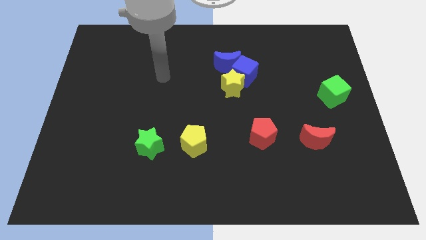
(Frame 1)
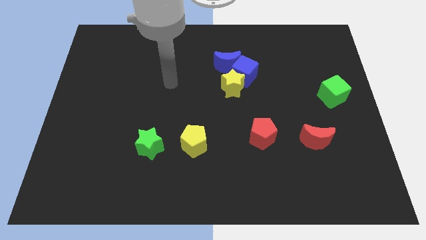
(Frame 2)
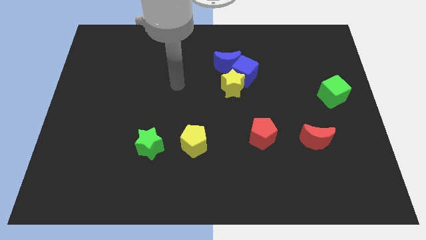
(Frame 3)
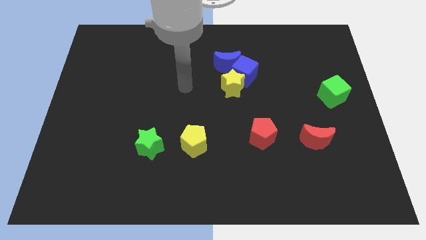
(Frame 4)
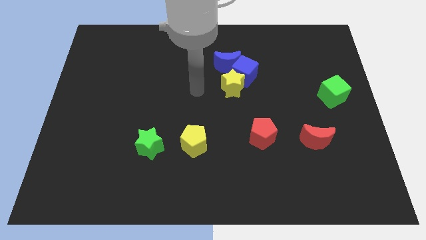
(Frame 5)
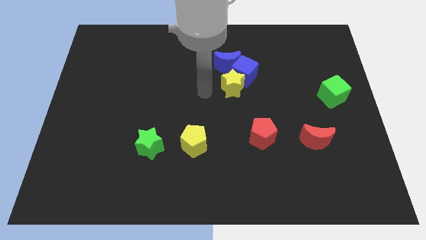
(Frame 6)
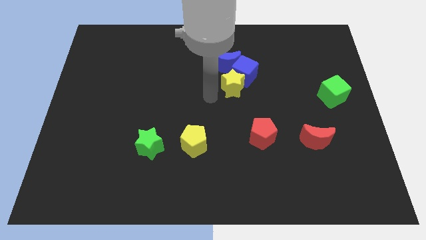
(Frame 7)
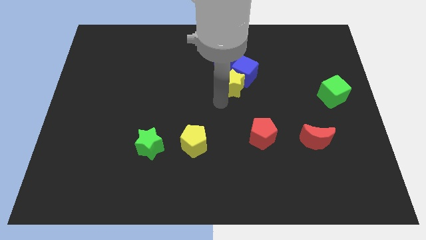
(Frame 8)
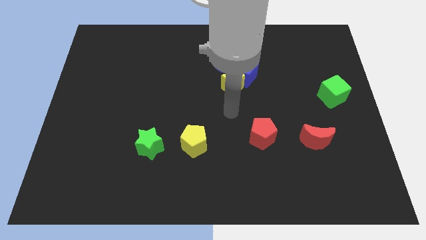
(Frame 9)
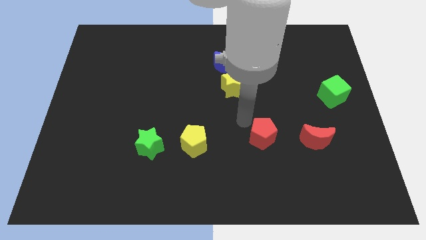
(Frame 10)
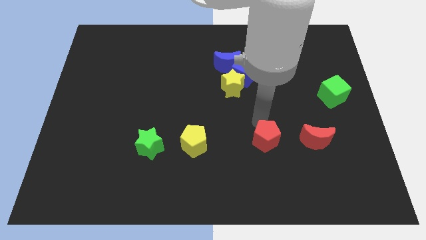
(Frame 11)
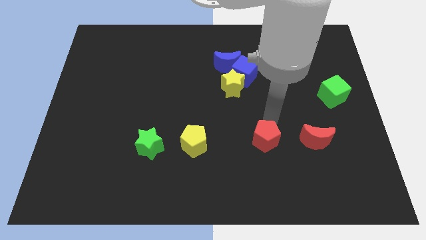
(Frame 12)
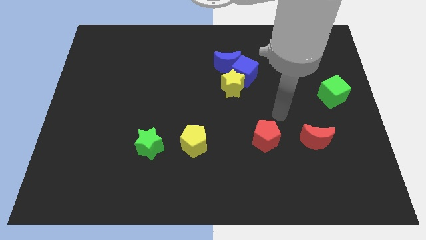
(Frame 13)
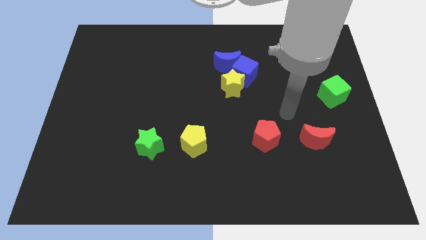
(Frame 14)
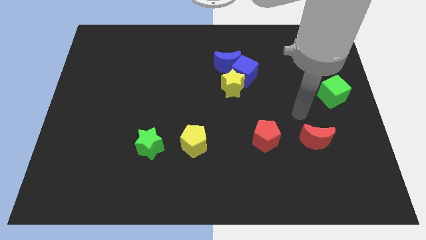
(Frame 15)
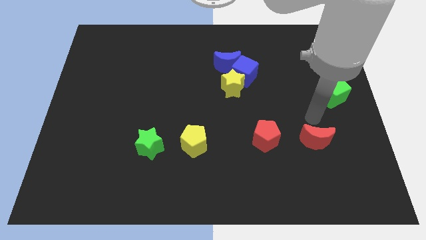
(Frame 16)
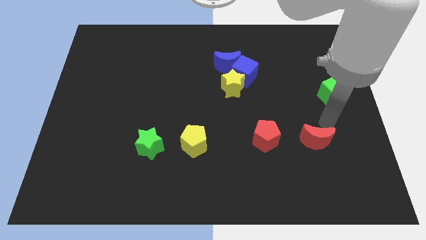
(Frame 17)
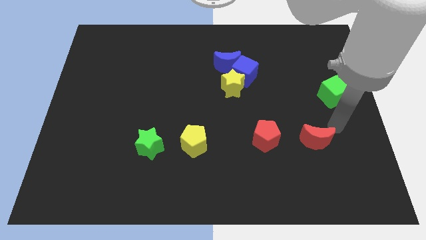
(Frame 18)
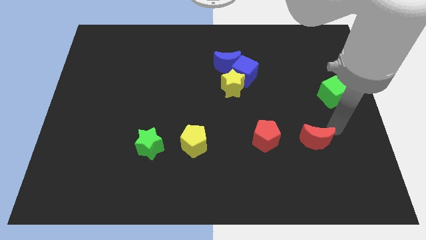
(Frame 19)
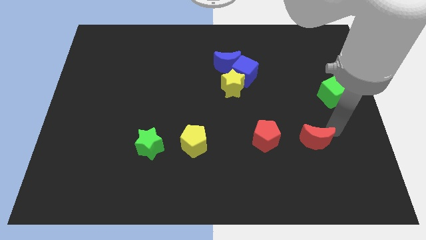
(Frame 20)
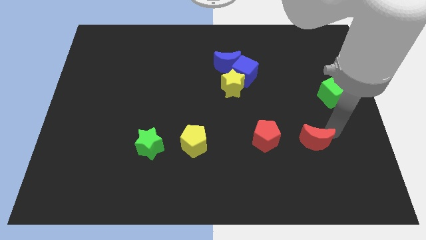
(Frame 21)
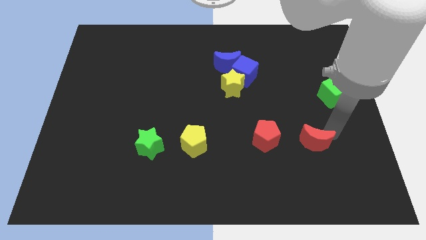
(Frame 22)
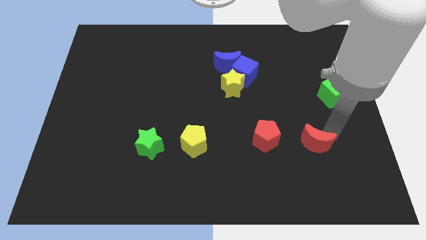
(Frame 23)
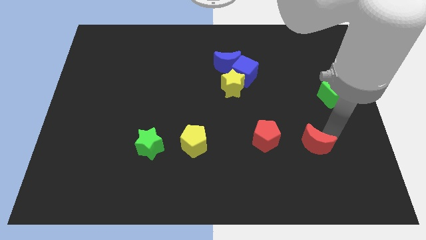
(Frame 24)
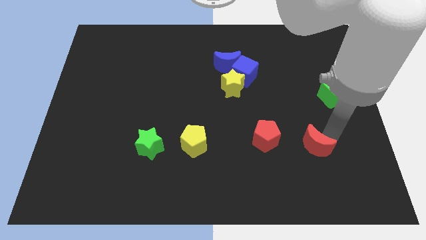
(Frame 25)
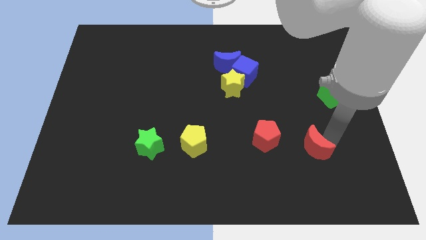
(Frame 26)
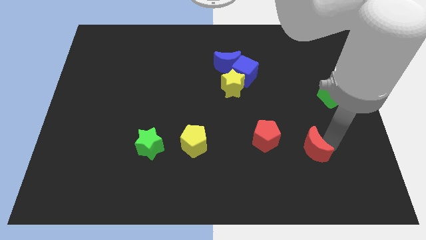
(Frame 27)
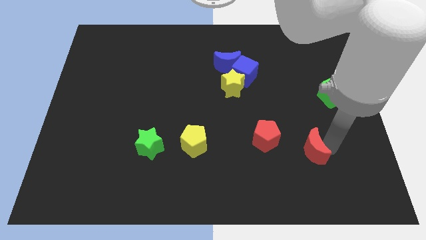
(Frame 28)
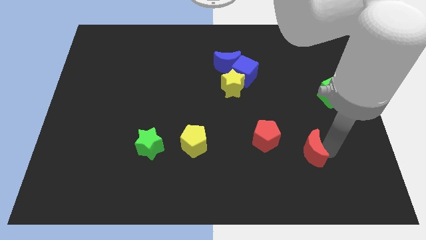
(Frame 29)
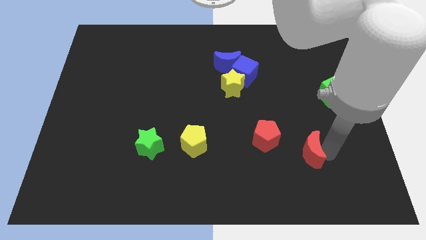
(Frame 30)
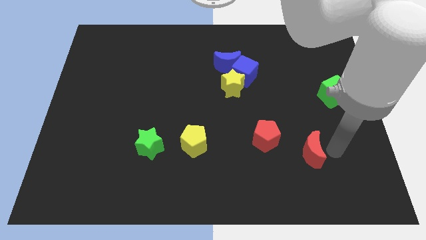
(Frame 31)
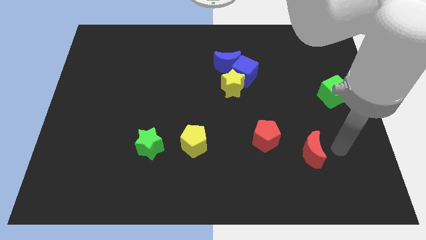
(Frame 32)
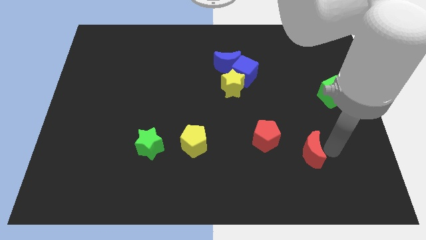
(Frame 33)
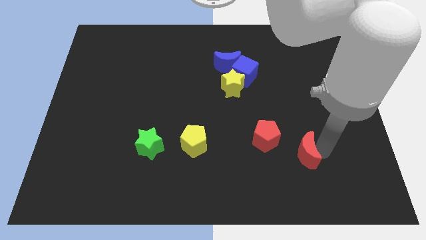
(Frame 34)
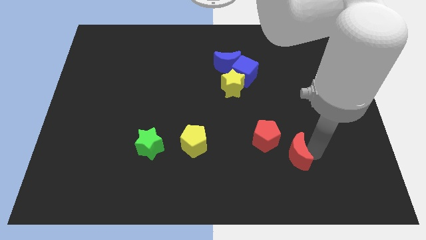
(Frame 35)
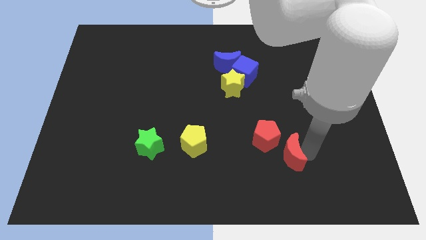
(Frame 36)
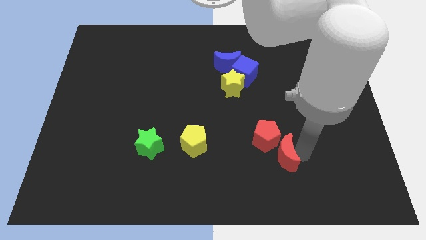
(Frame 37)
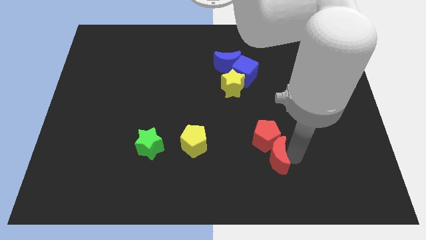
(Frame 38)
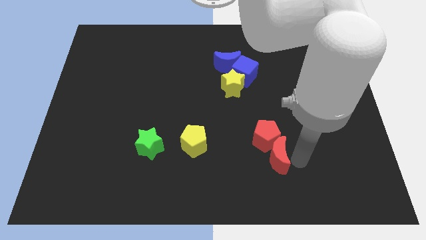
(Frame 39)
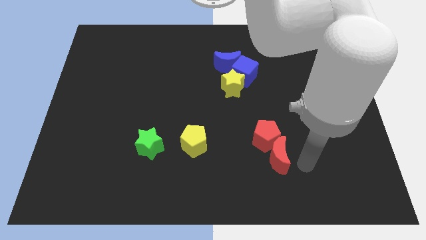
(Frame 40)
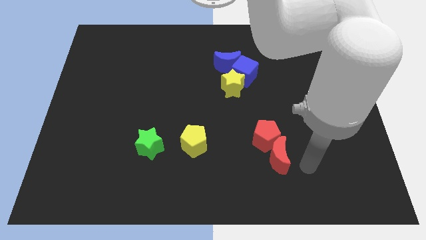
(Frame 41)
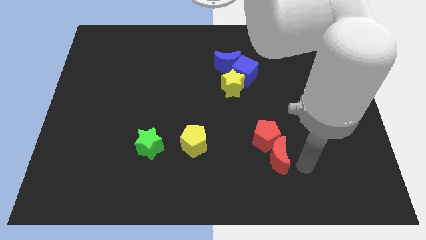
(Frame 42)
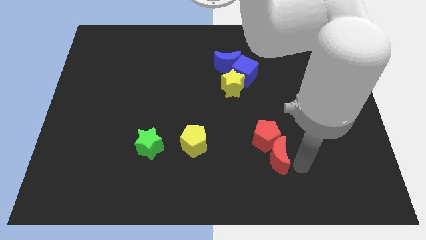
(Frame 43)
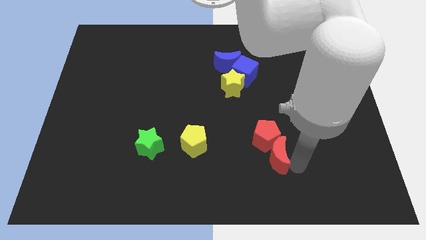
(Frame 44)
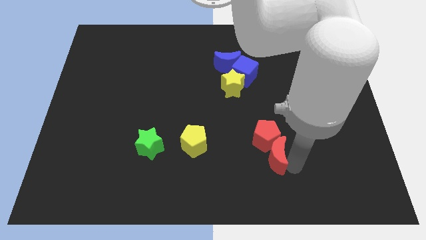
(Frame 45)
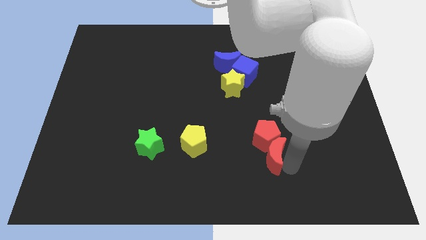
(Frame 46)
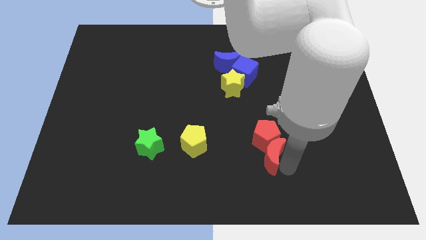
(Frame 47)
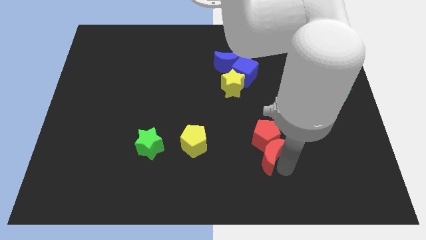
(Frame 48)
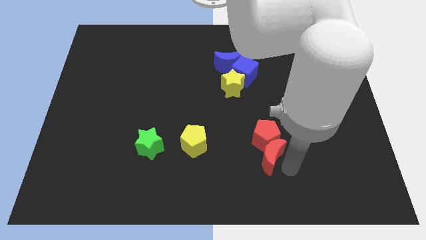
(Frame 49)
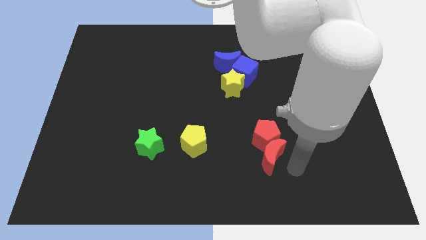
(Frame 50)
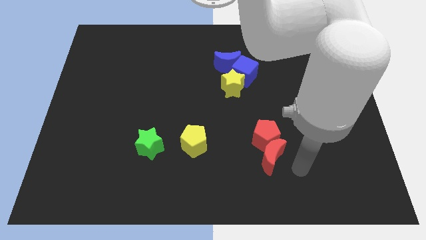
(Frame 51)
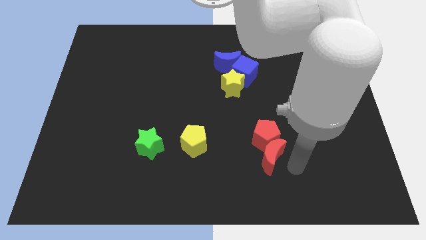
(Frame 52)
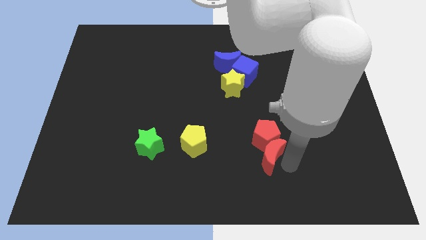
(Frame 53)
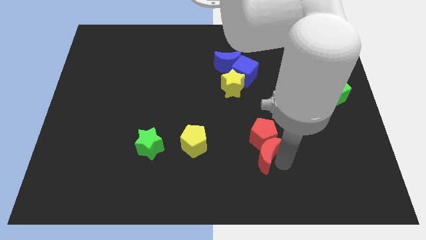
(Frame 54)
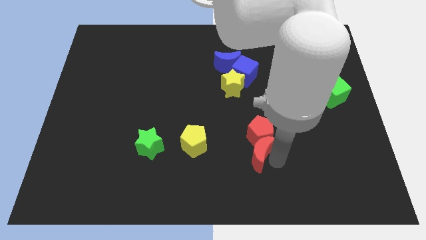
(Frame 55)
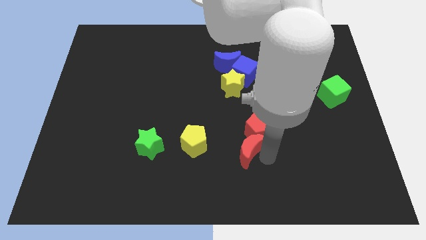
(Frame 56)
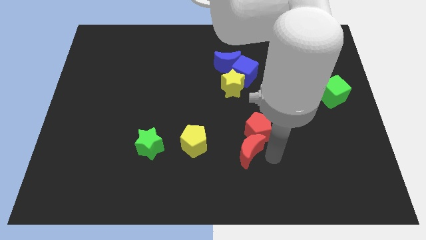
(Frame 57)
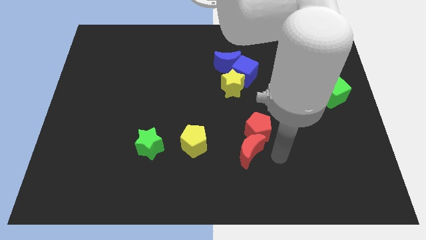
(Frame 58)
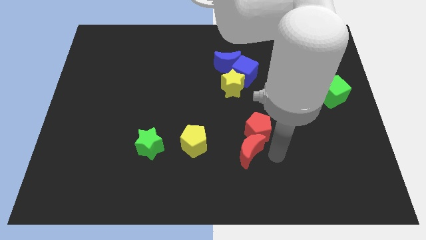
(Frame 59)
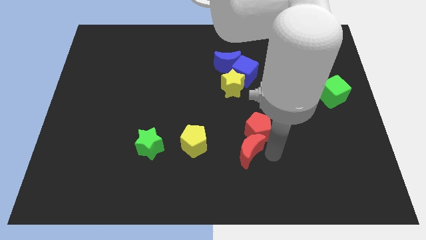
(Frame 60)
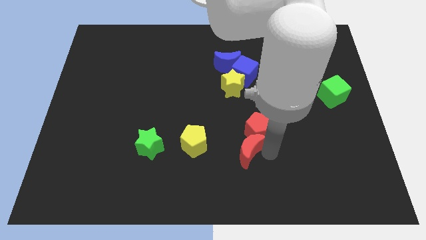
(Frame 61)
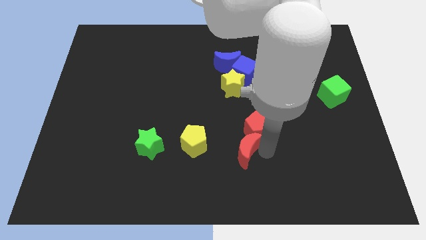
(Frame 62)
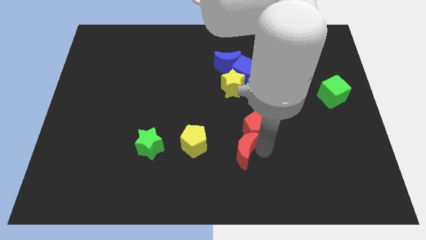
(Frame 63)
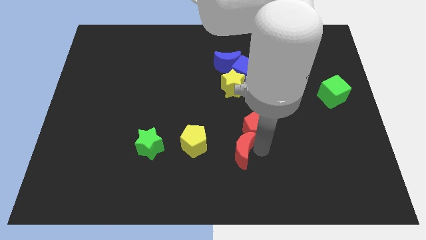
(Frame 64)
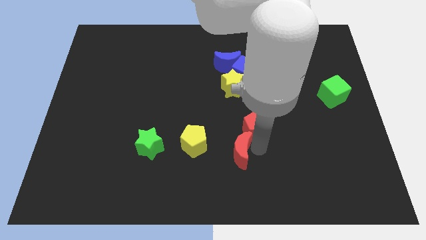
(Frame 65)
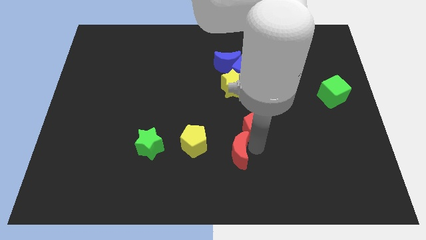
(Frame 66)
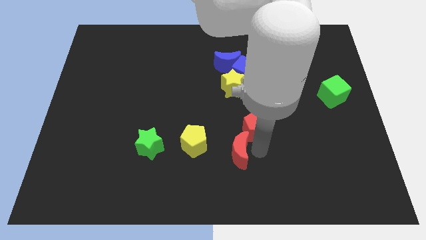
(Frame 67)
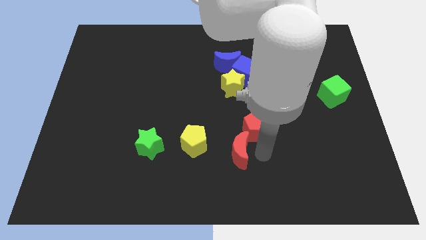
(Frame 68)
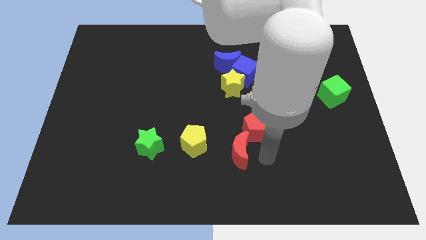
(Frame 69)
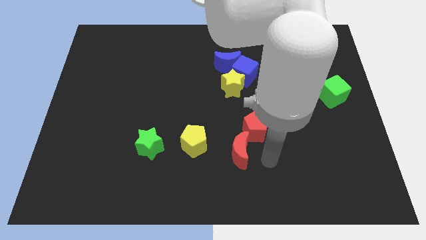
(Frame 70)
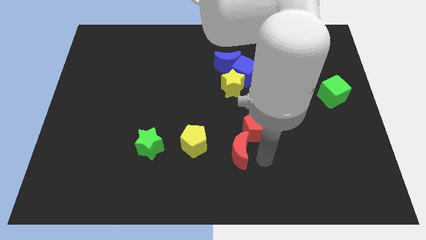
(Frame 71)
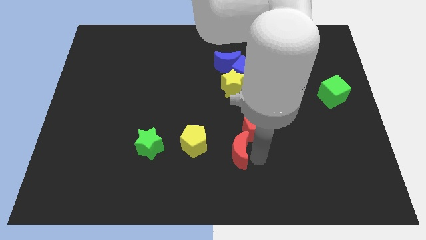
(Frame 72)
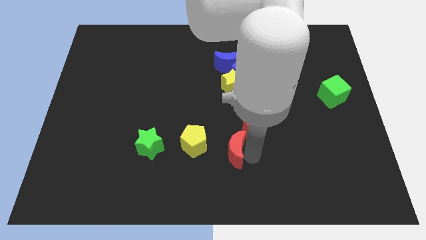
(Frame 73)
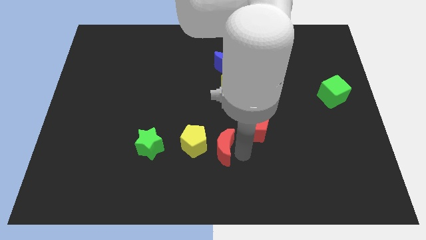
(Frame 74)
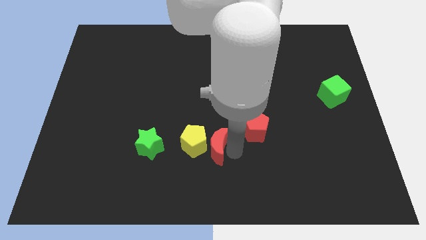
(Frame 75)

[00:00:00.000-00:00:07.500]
move the red moon to the yellow pentagon

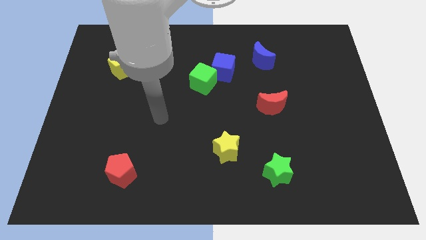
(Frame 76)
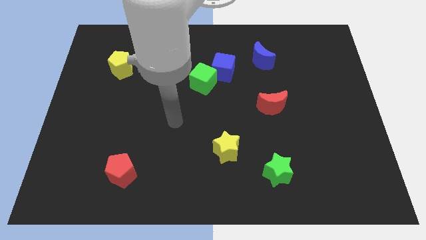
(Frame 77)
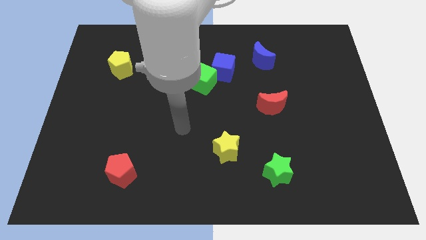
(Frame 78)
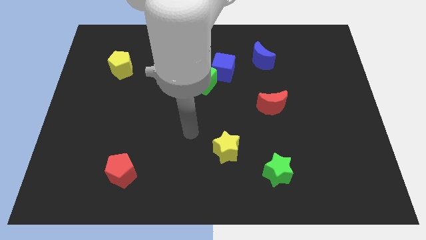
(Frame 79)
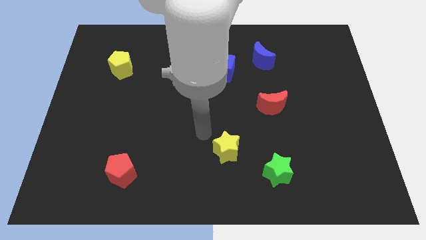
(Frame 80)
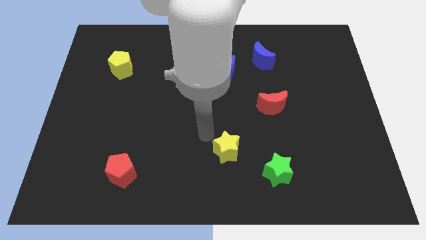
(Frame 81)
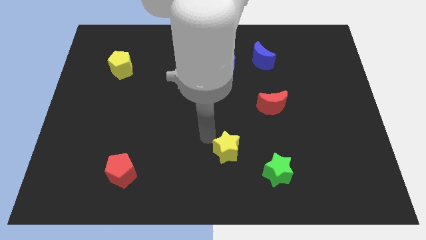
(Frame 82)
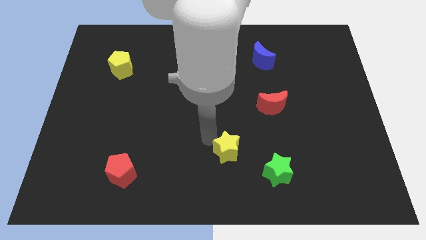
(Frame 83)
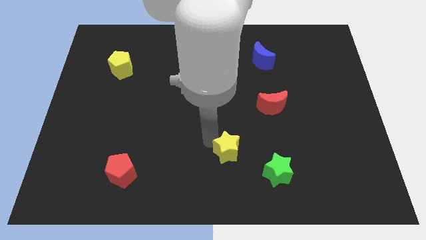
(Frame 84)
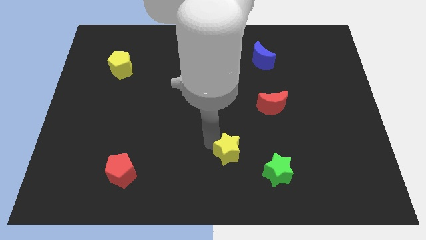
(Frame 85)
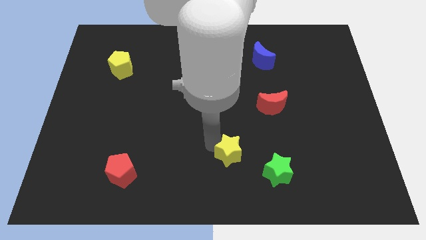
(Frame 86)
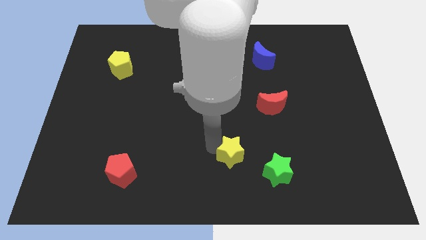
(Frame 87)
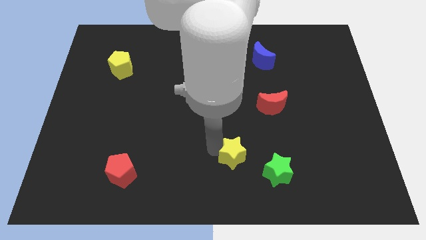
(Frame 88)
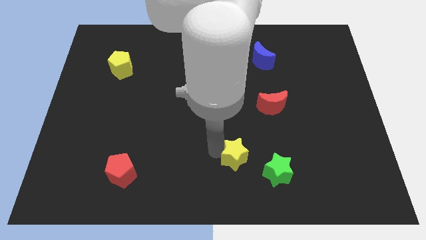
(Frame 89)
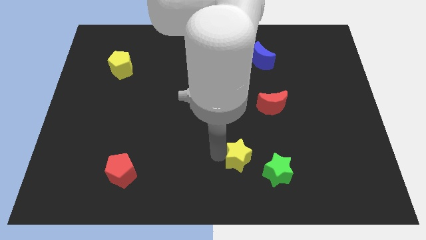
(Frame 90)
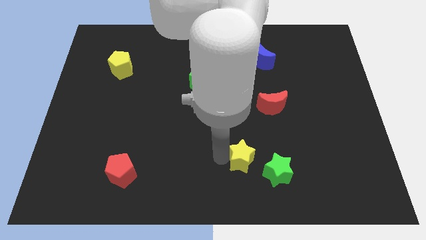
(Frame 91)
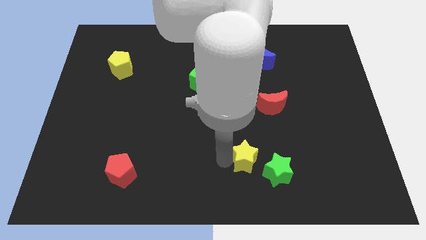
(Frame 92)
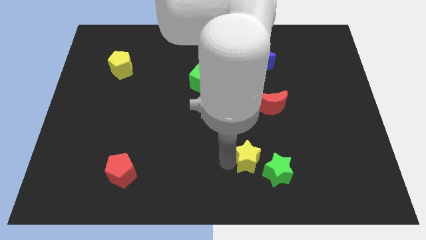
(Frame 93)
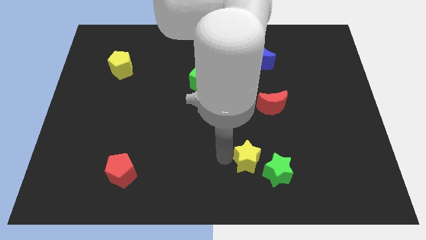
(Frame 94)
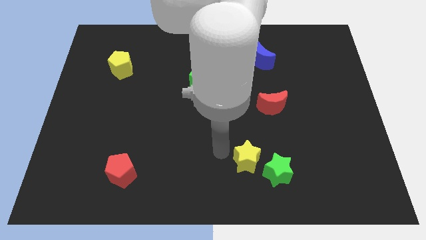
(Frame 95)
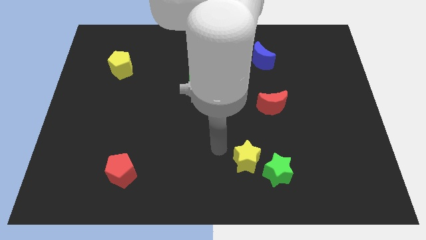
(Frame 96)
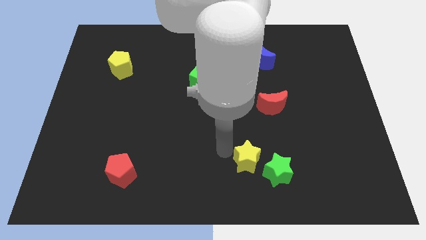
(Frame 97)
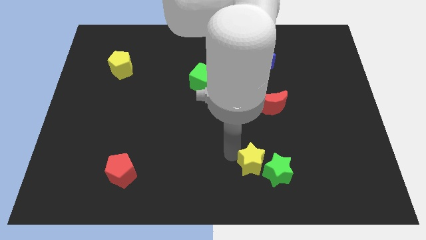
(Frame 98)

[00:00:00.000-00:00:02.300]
slide the yellow star to the green star
